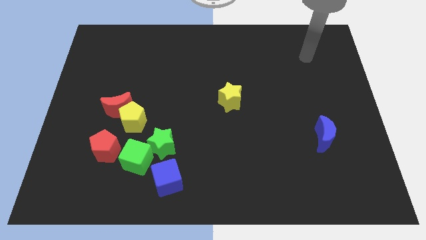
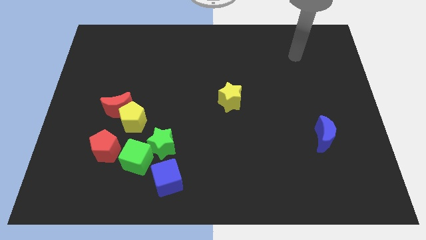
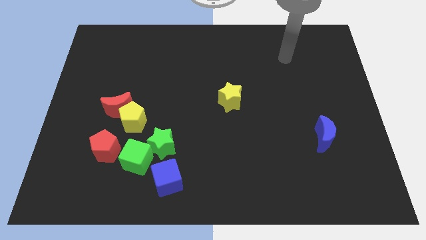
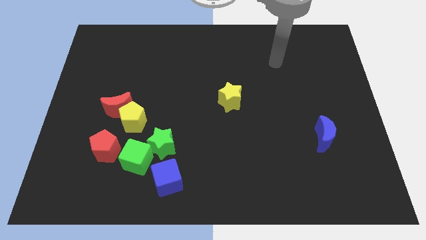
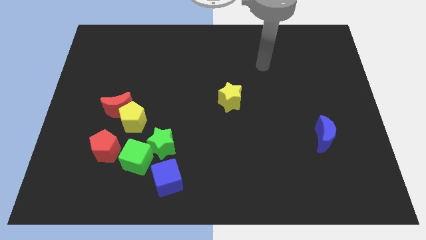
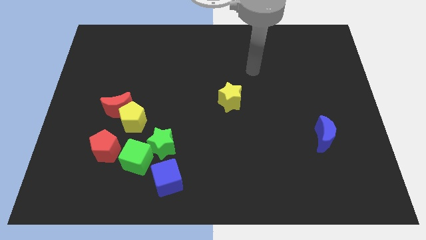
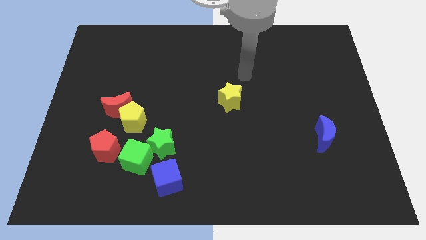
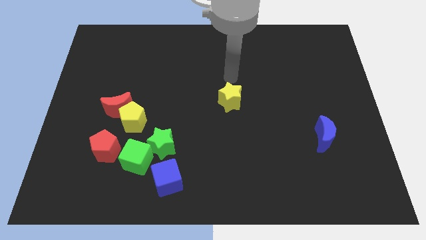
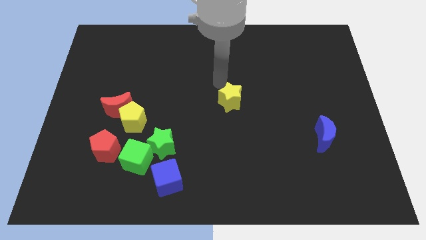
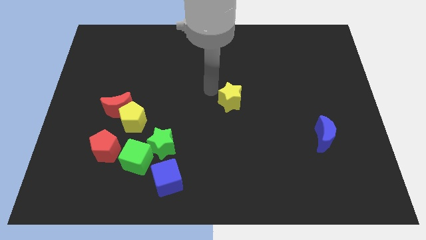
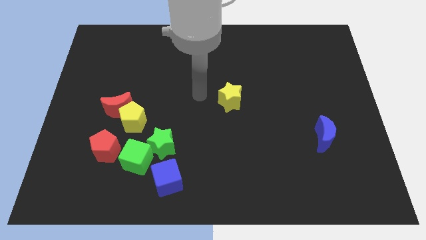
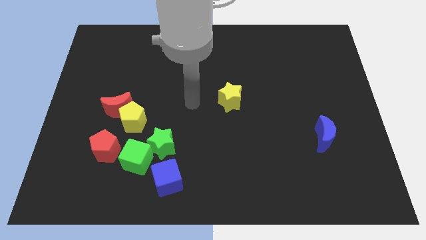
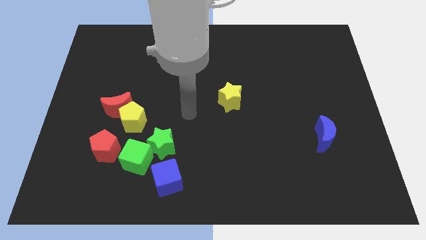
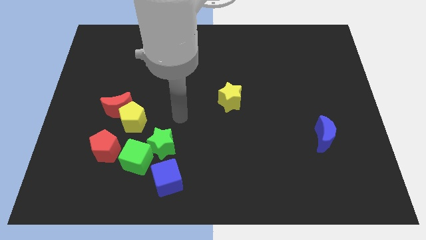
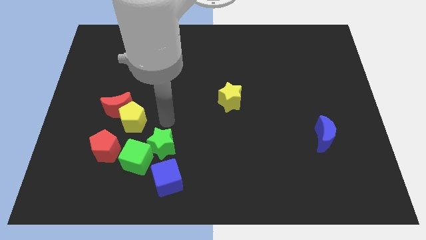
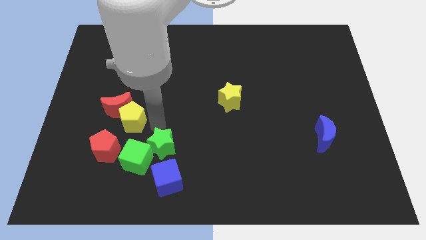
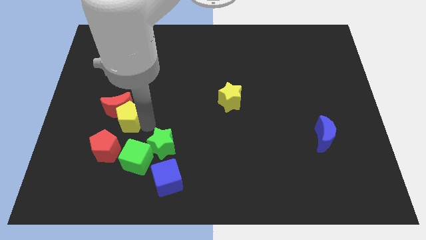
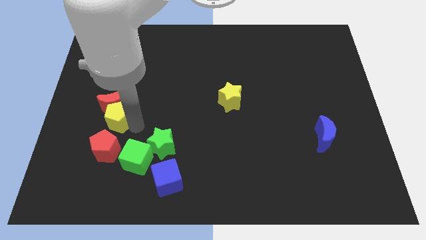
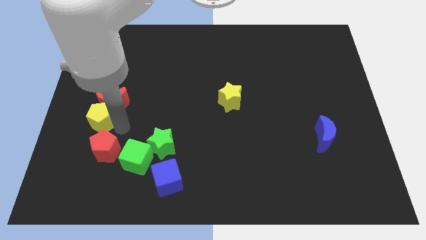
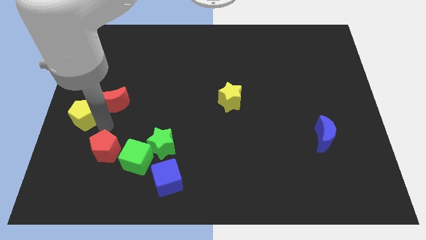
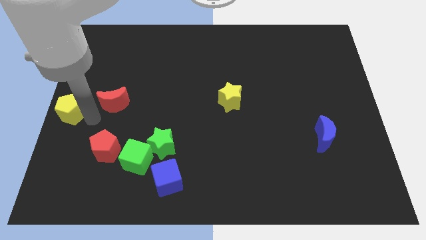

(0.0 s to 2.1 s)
separate the red moon from the yellow pentagon

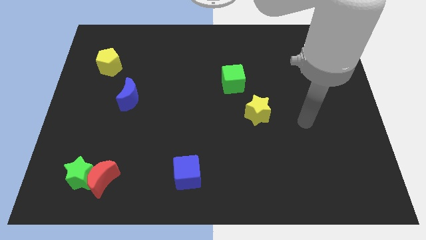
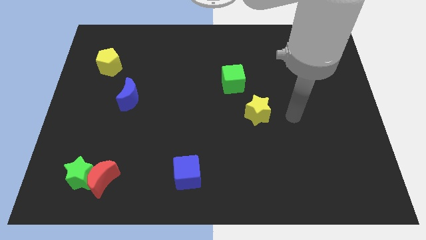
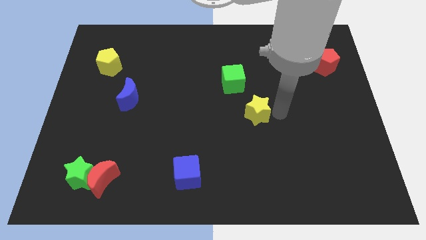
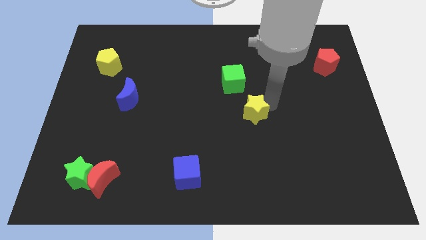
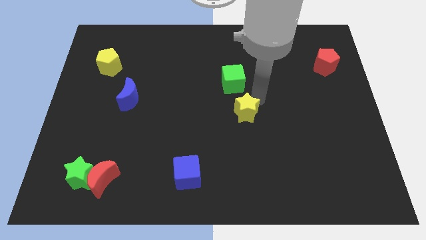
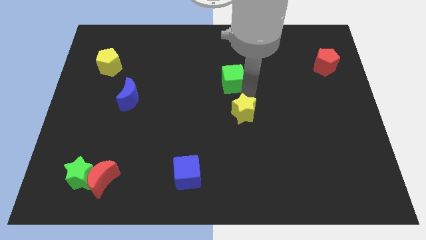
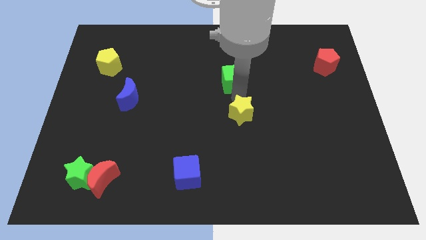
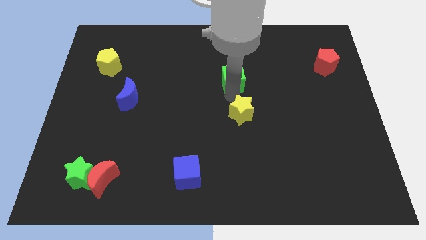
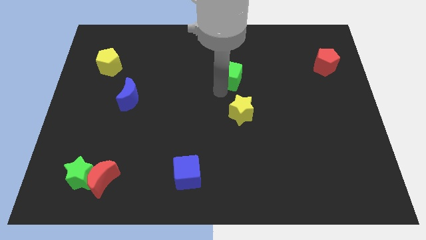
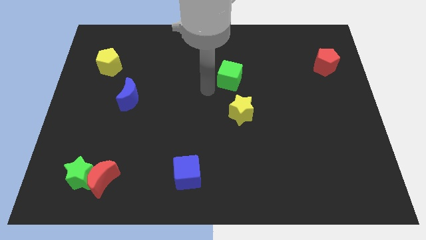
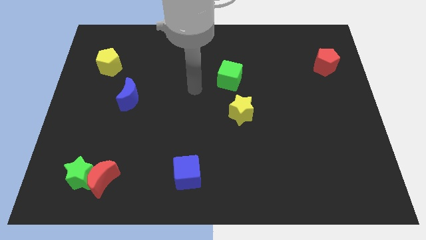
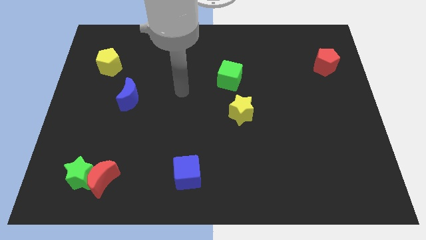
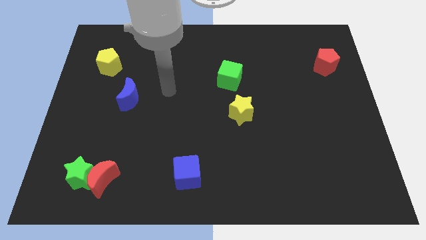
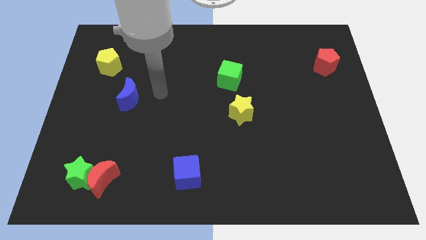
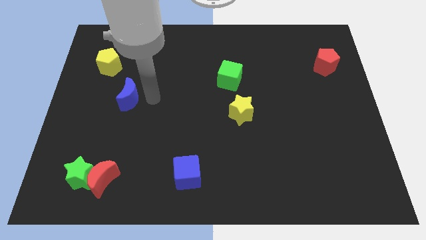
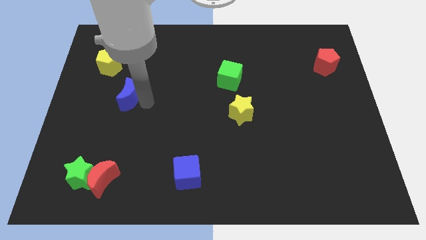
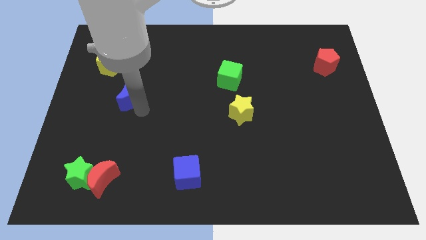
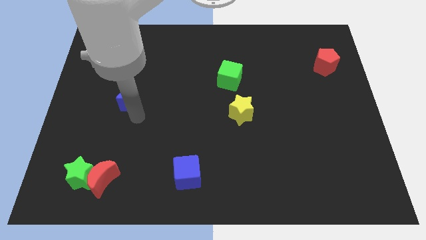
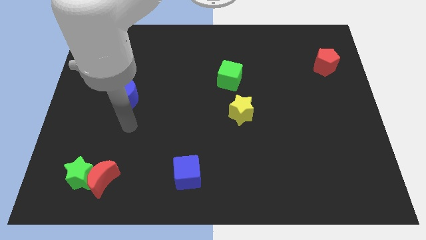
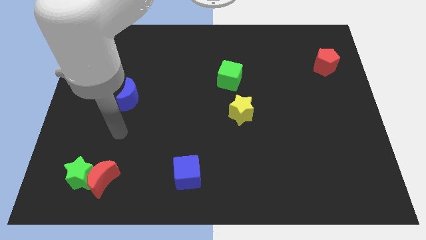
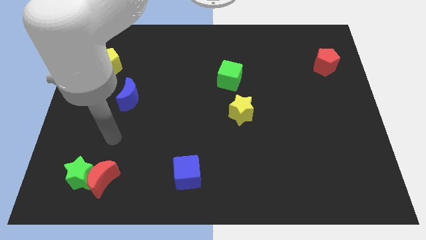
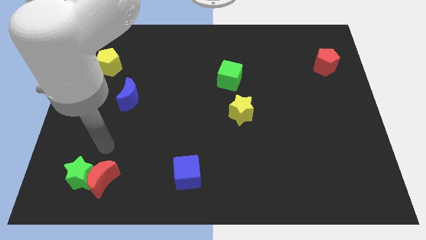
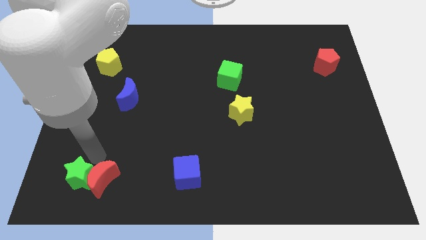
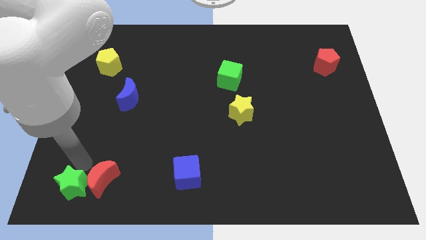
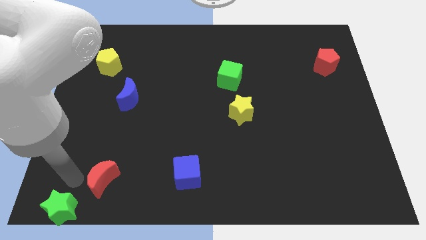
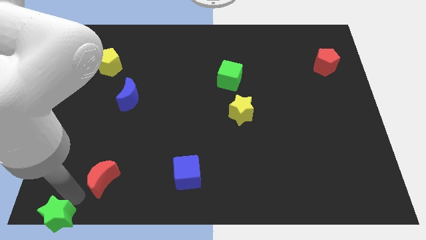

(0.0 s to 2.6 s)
separate the red moon from the green star

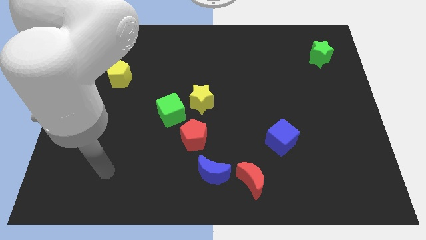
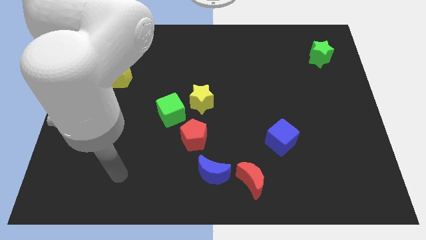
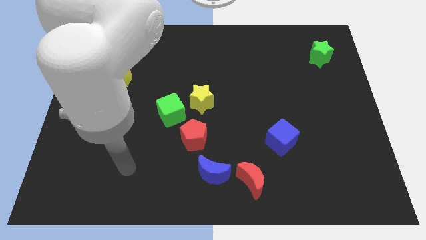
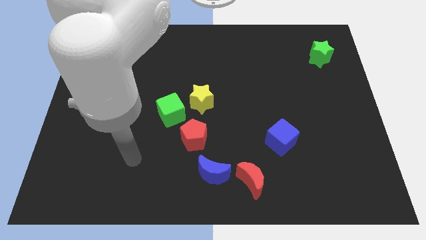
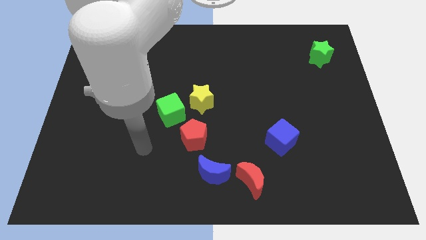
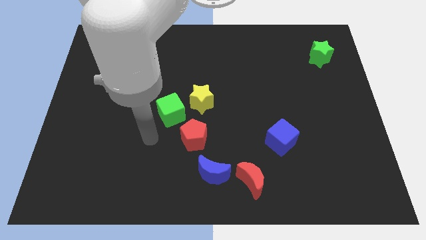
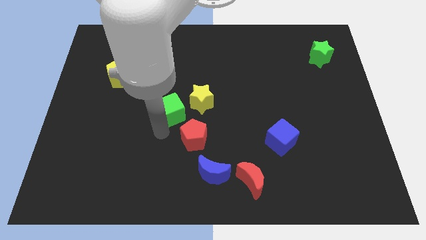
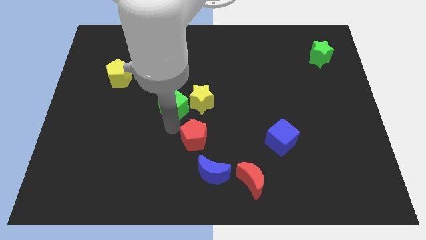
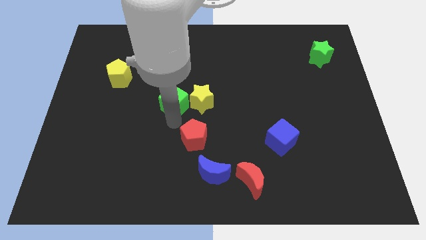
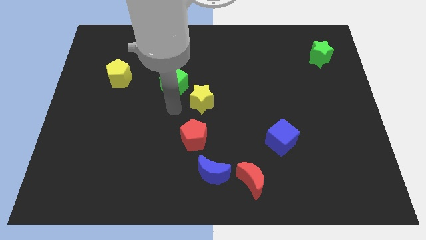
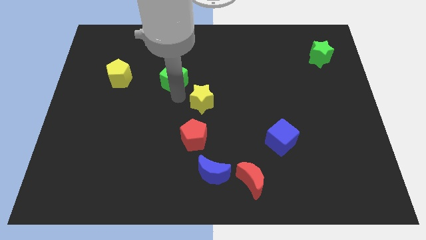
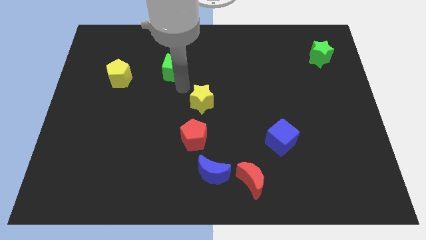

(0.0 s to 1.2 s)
pull the yellow star apart from the green cube

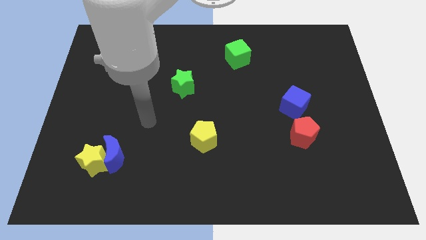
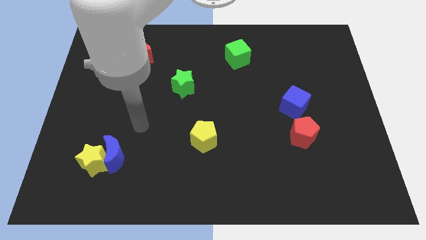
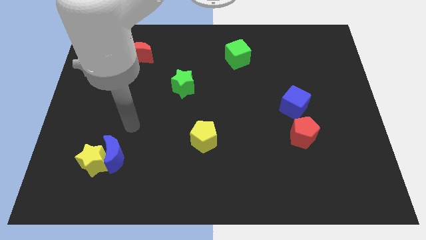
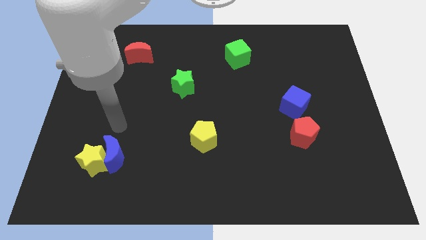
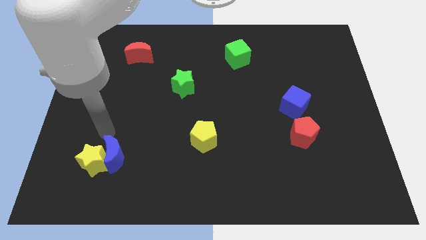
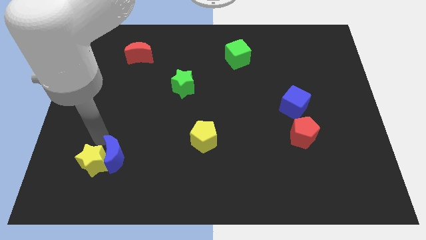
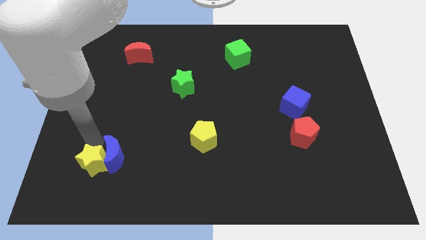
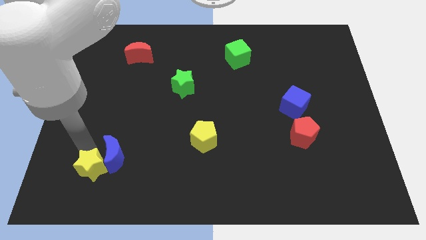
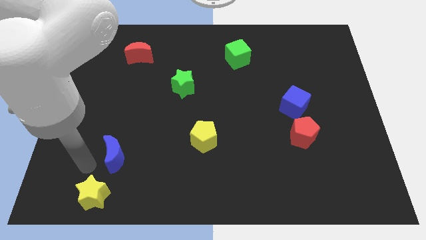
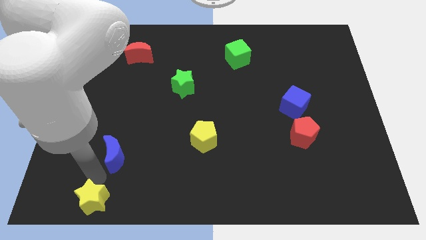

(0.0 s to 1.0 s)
pull the blue moon apart from the yellow star

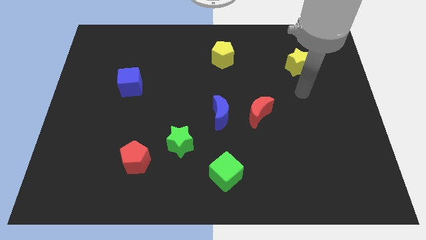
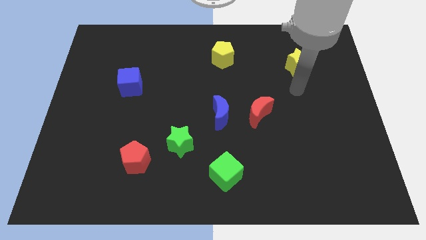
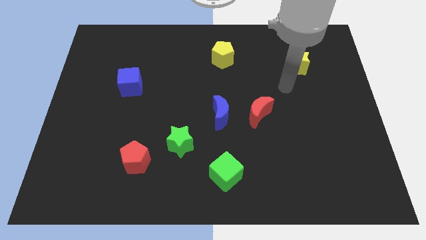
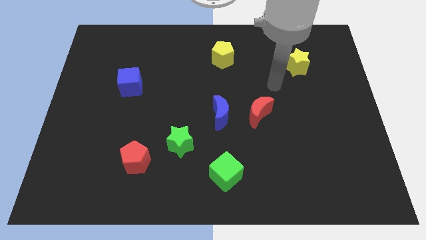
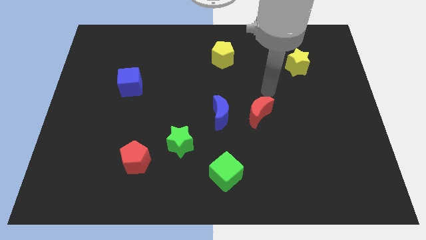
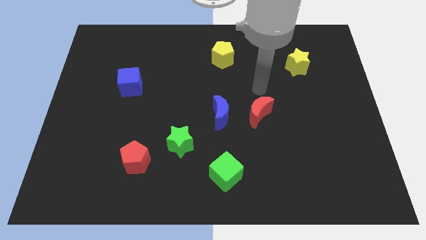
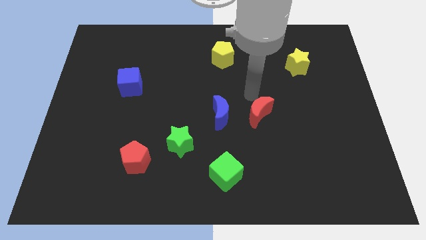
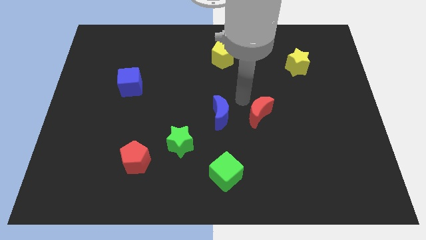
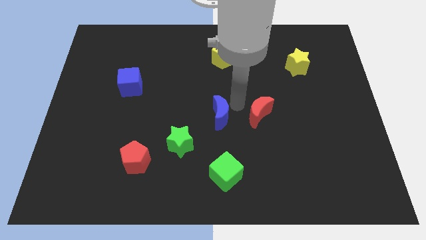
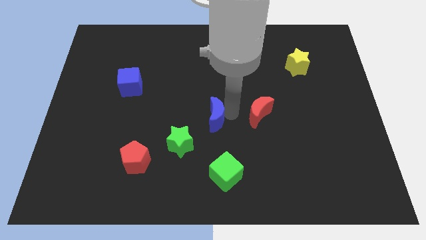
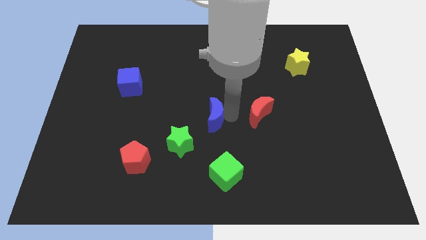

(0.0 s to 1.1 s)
move the red moon away from the blue moon

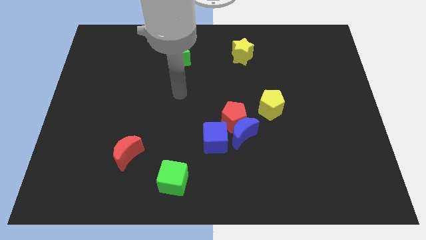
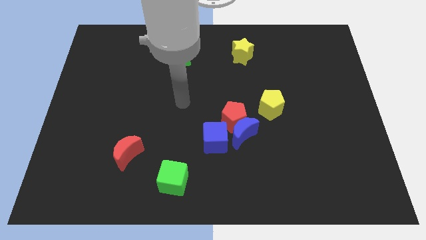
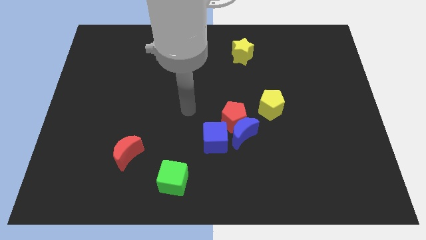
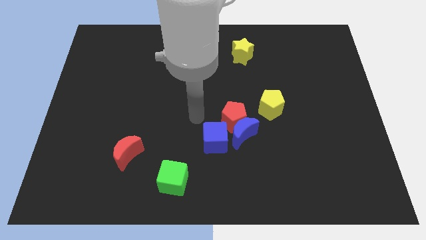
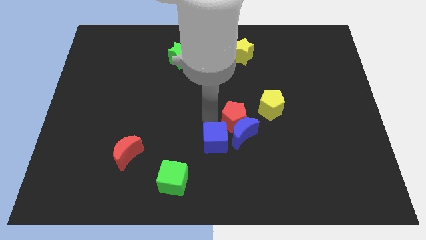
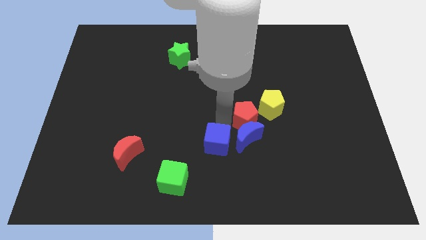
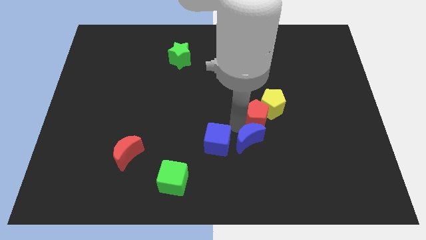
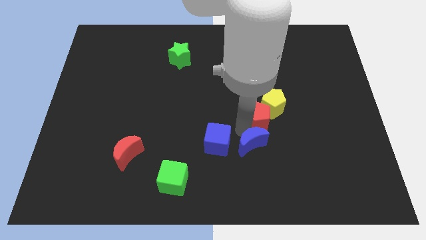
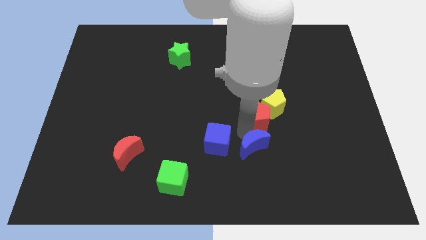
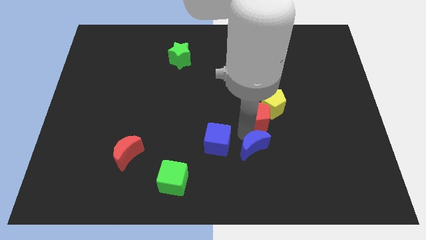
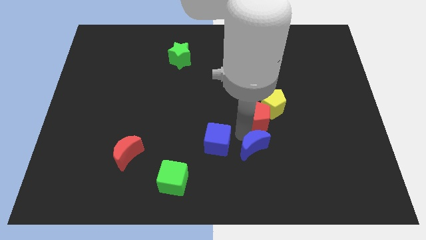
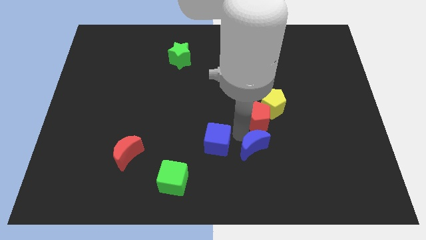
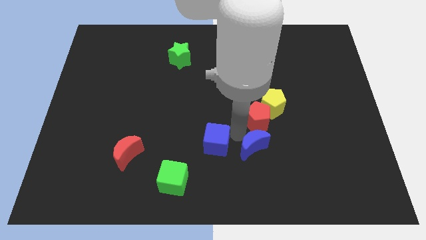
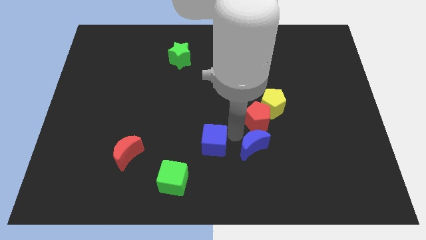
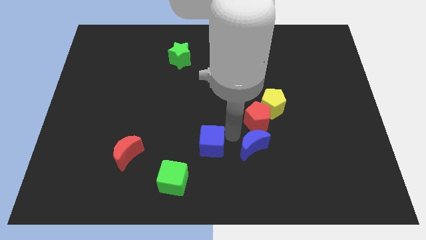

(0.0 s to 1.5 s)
separate the blue cube from the blue moon and red pentagon
